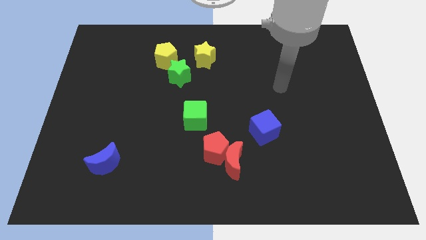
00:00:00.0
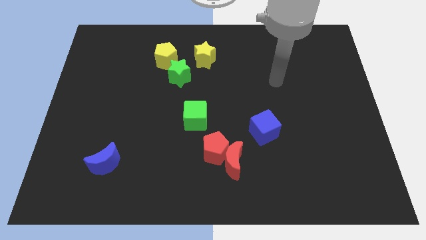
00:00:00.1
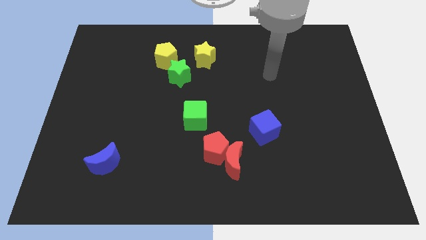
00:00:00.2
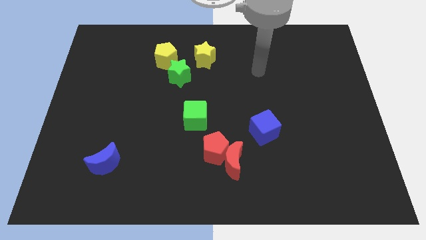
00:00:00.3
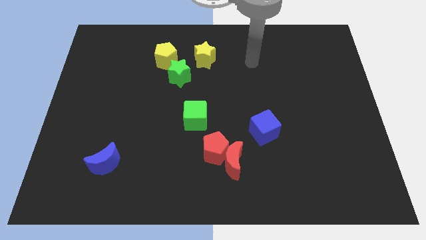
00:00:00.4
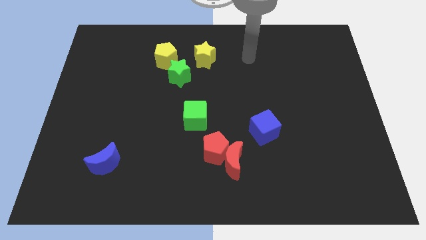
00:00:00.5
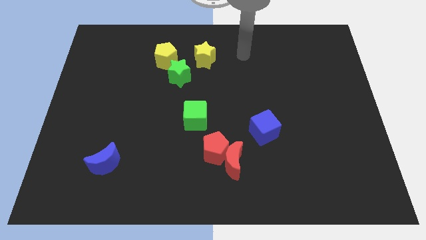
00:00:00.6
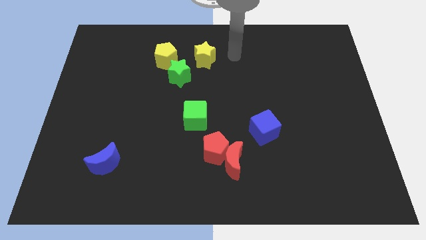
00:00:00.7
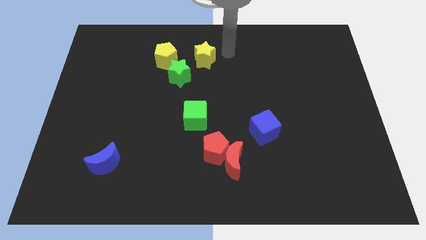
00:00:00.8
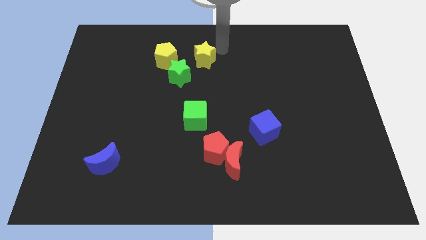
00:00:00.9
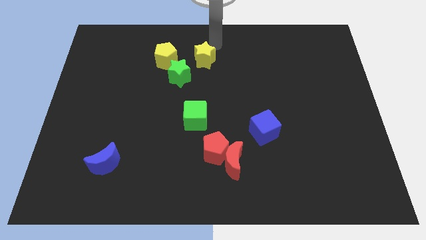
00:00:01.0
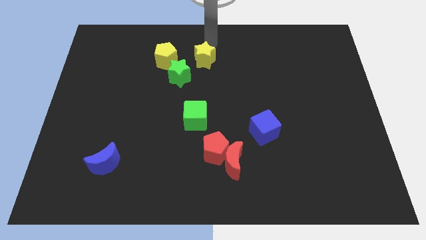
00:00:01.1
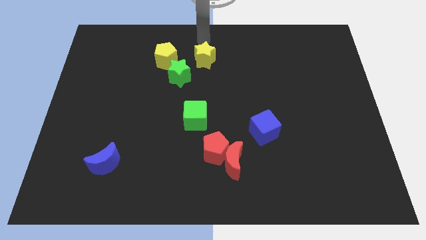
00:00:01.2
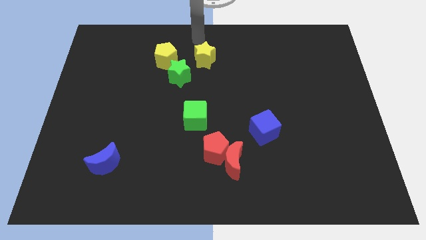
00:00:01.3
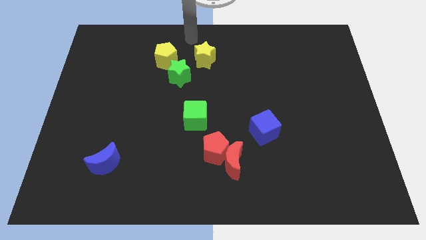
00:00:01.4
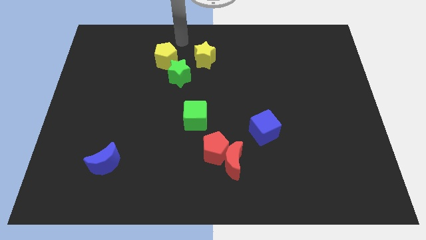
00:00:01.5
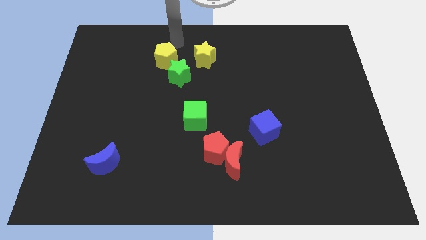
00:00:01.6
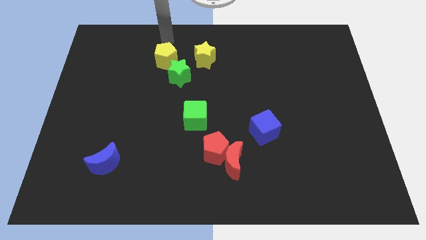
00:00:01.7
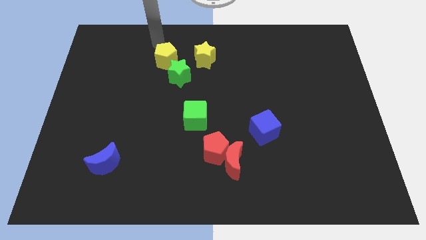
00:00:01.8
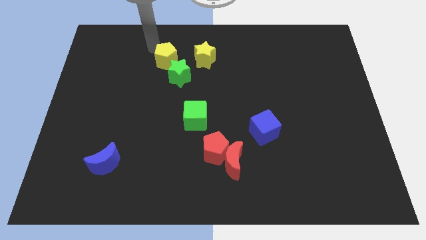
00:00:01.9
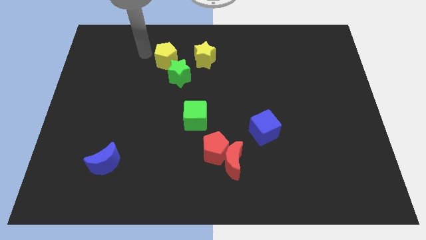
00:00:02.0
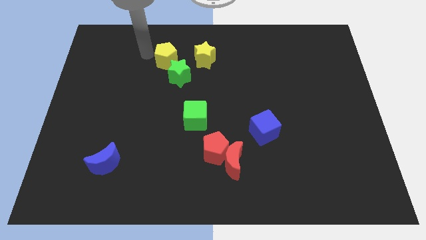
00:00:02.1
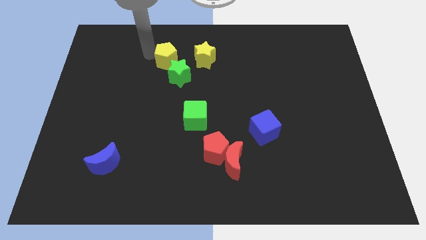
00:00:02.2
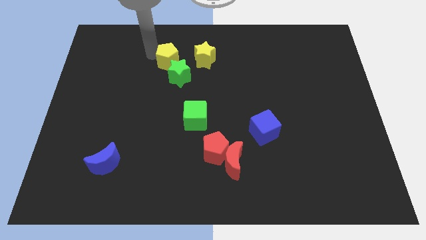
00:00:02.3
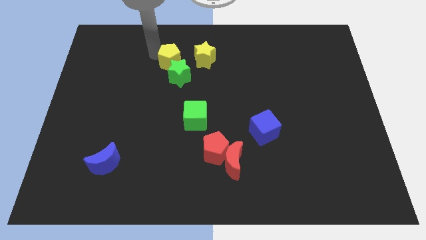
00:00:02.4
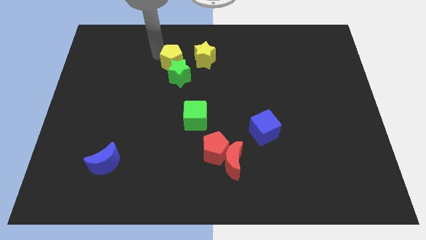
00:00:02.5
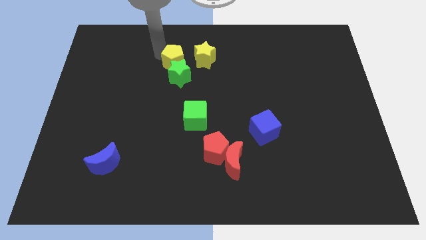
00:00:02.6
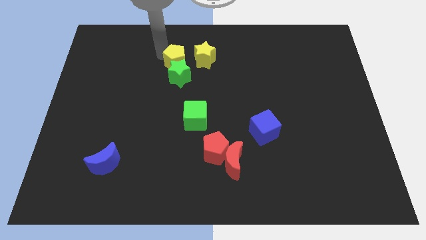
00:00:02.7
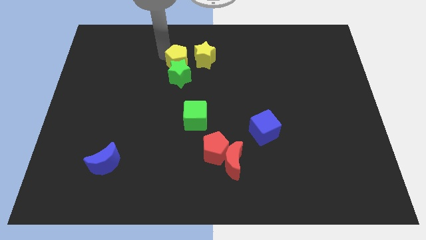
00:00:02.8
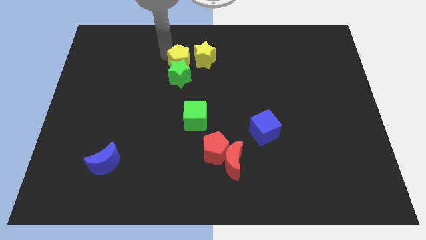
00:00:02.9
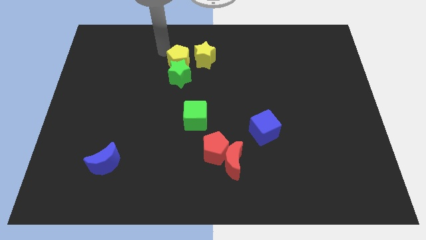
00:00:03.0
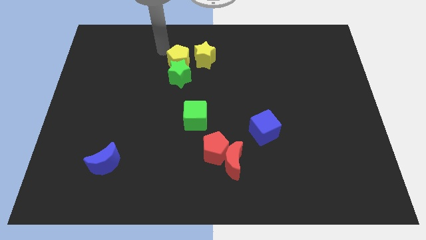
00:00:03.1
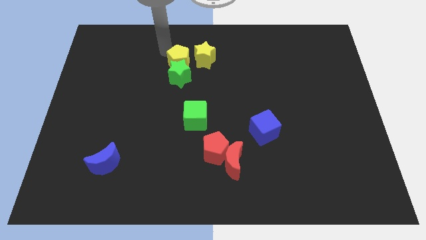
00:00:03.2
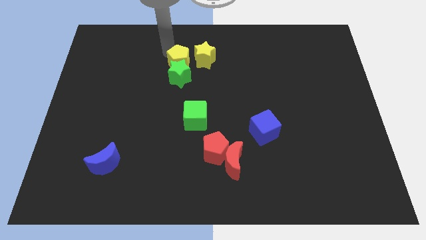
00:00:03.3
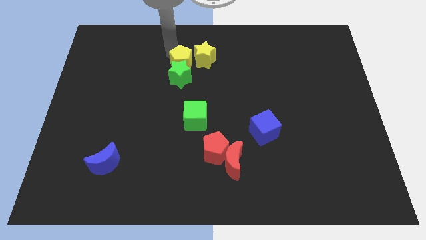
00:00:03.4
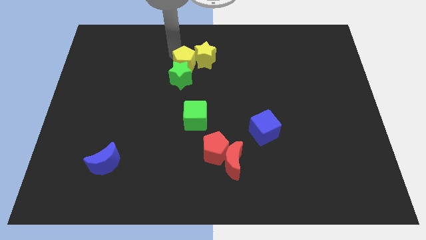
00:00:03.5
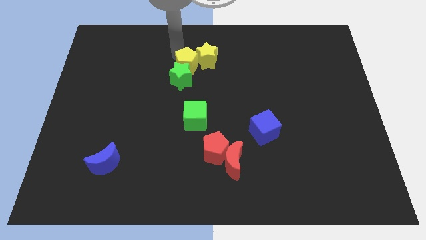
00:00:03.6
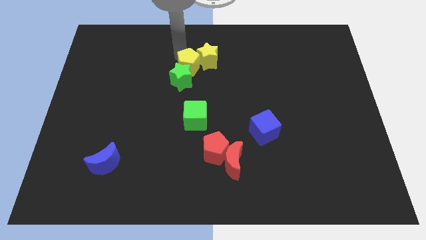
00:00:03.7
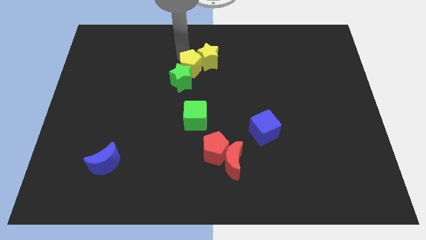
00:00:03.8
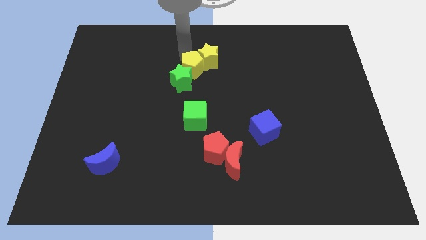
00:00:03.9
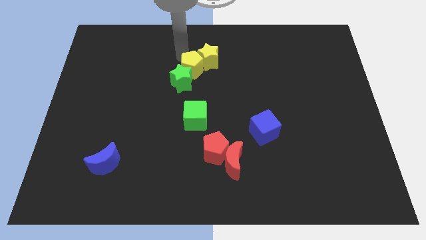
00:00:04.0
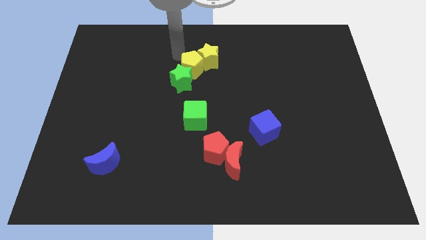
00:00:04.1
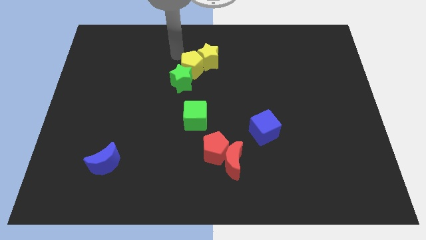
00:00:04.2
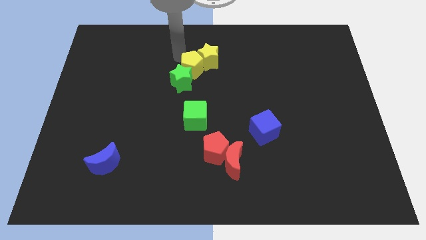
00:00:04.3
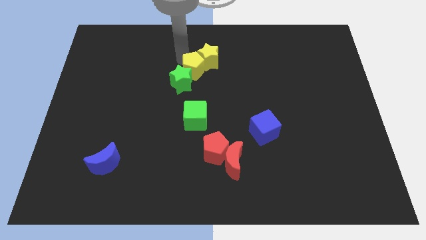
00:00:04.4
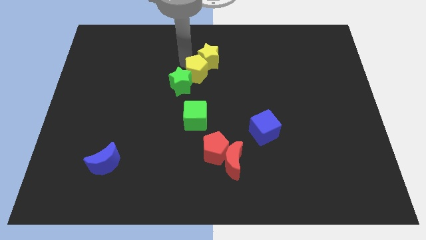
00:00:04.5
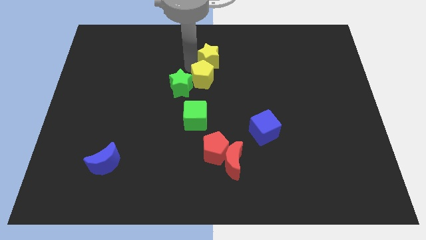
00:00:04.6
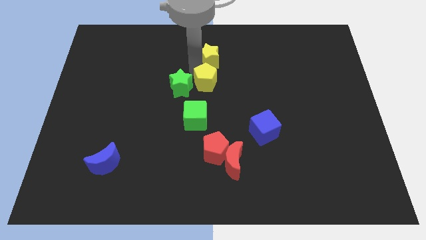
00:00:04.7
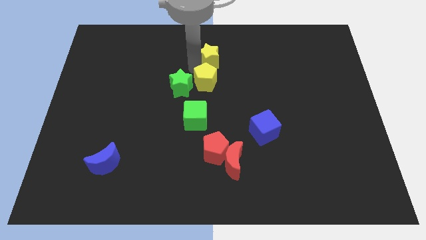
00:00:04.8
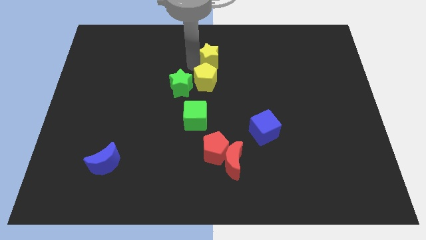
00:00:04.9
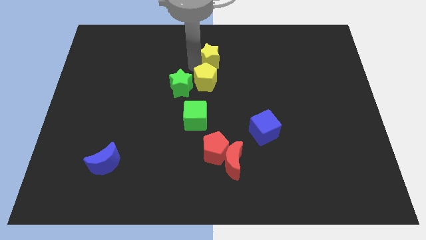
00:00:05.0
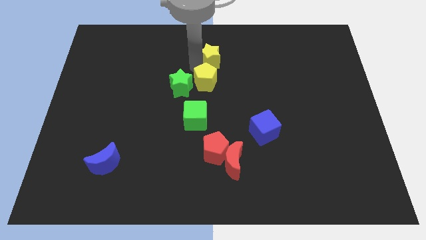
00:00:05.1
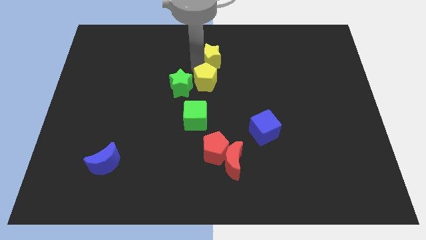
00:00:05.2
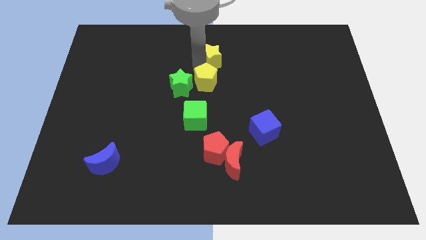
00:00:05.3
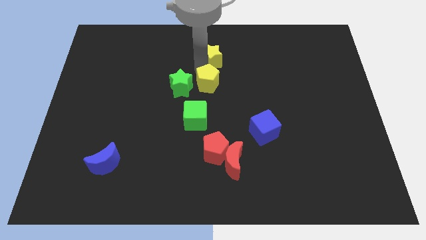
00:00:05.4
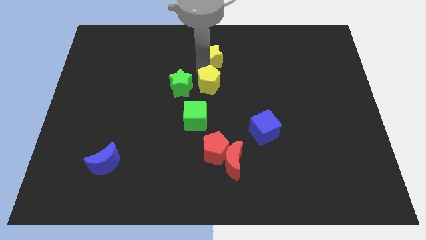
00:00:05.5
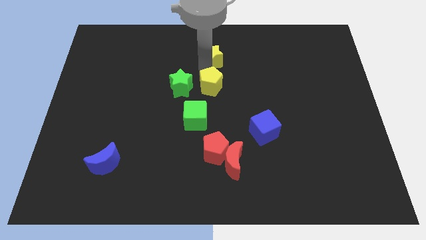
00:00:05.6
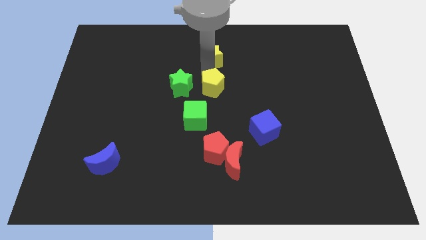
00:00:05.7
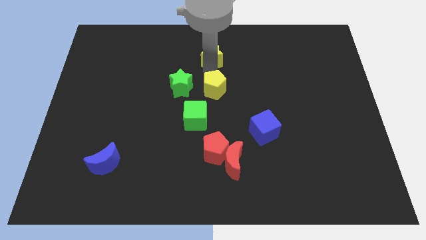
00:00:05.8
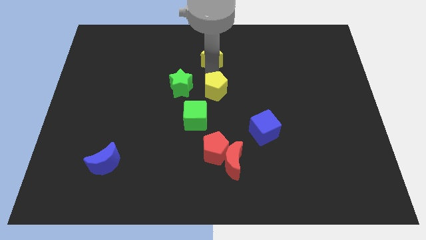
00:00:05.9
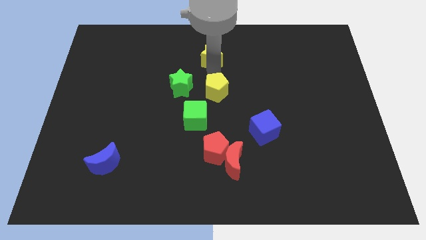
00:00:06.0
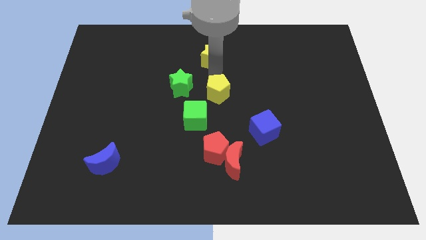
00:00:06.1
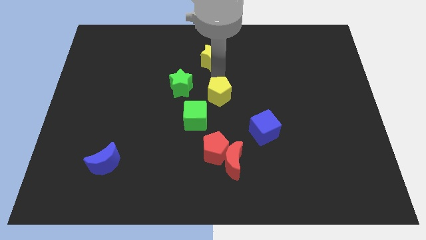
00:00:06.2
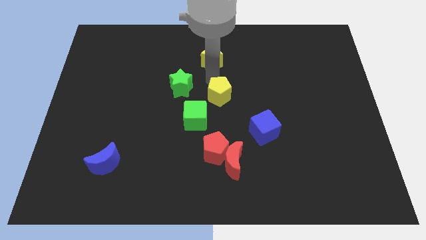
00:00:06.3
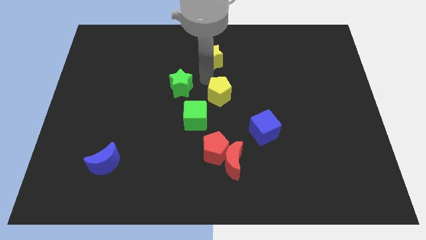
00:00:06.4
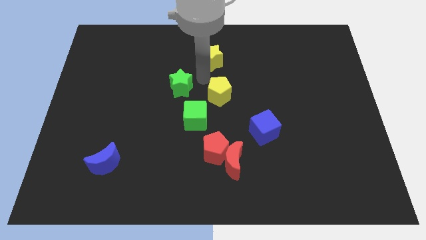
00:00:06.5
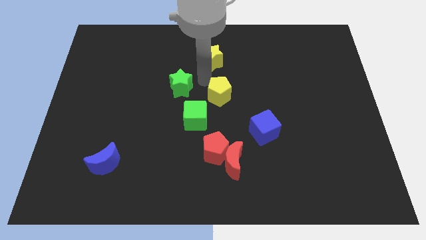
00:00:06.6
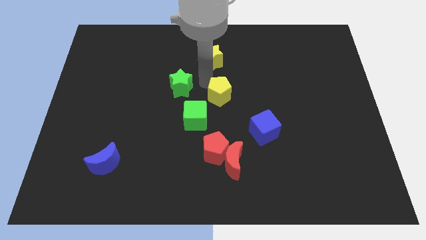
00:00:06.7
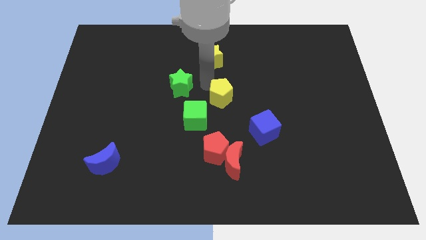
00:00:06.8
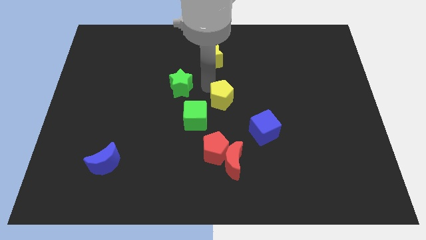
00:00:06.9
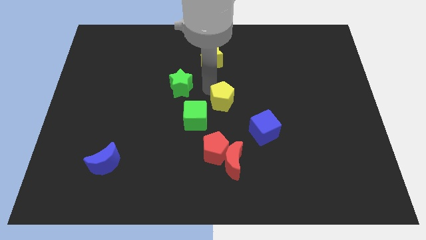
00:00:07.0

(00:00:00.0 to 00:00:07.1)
push the yellow pentagon to the top left side of the blue cube

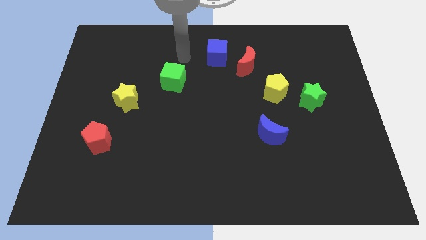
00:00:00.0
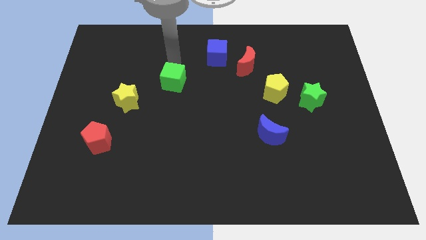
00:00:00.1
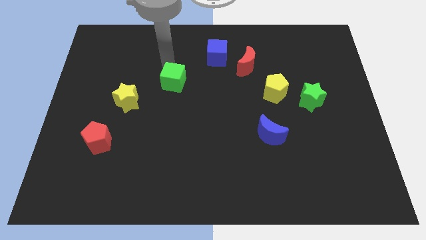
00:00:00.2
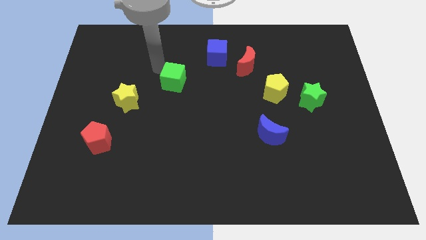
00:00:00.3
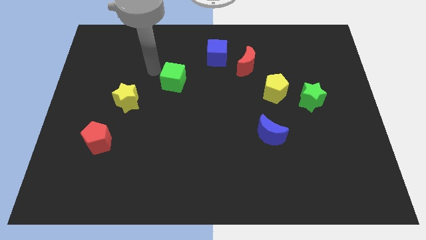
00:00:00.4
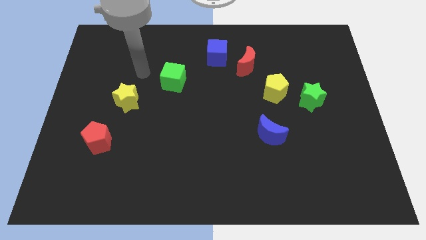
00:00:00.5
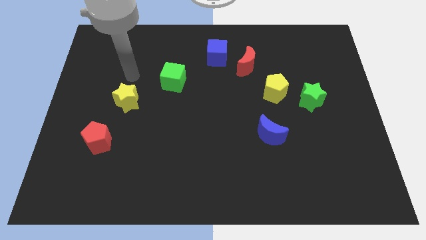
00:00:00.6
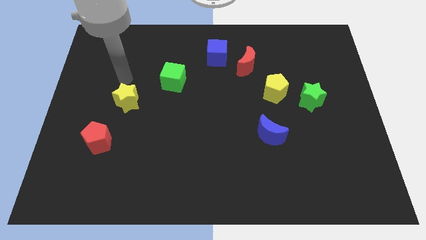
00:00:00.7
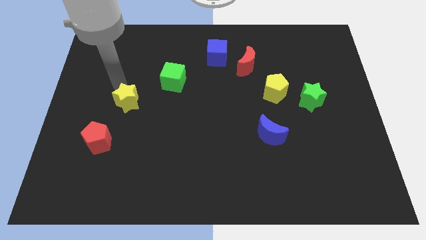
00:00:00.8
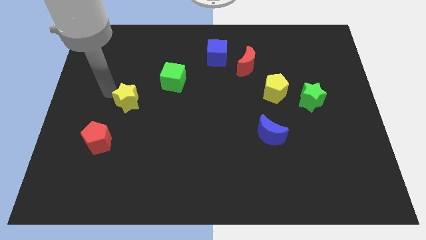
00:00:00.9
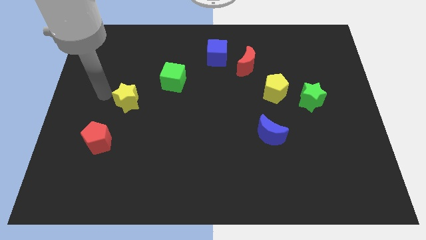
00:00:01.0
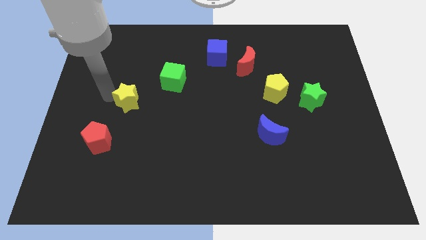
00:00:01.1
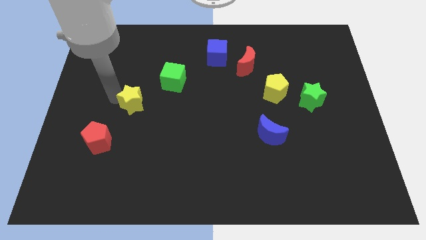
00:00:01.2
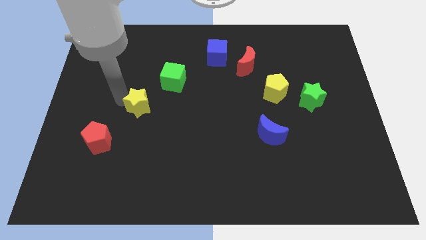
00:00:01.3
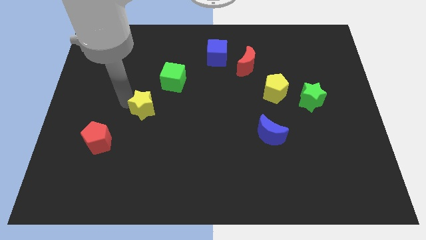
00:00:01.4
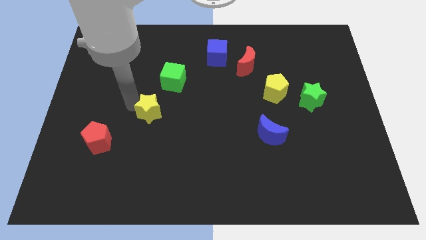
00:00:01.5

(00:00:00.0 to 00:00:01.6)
move the yellow star below the green cube
